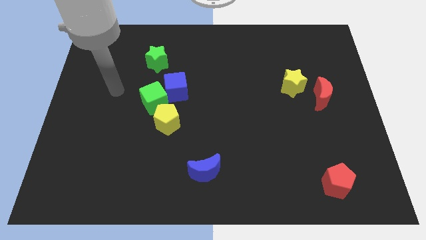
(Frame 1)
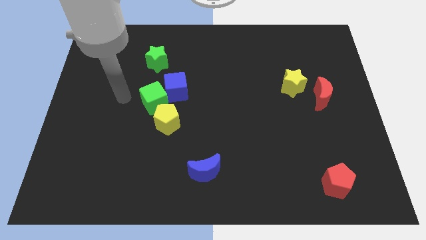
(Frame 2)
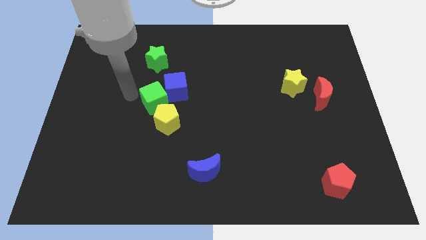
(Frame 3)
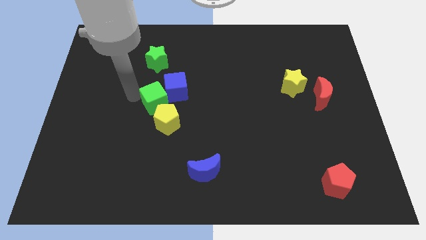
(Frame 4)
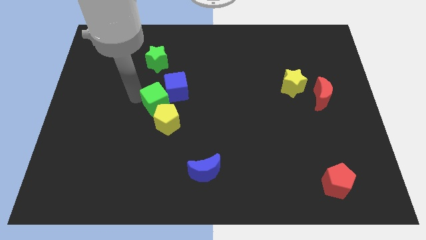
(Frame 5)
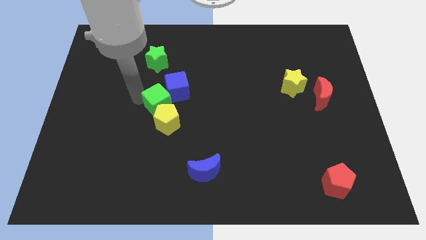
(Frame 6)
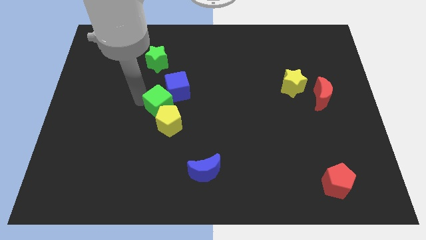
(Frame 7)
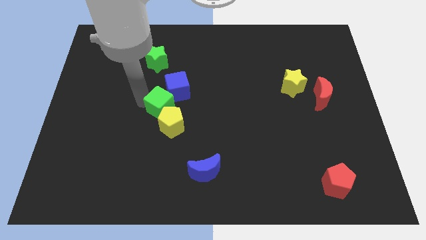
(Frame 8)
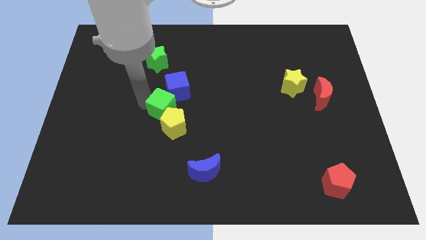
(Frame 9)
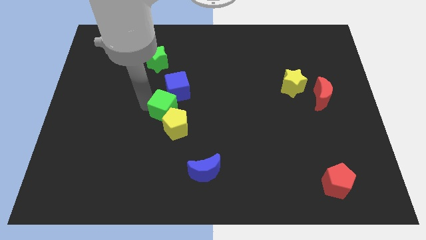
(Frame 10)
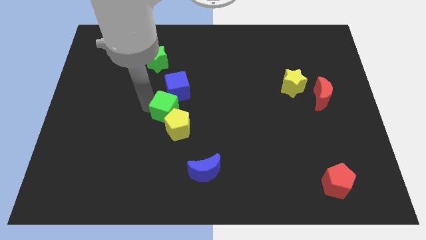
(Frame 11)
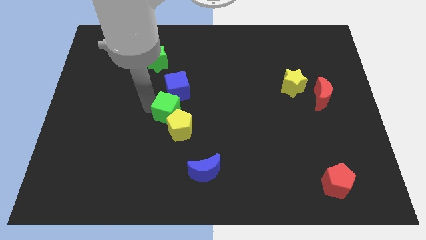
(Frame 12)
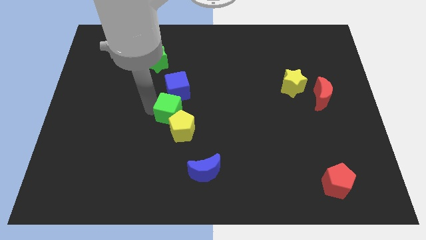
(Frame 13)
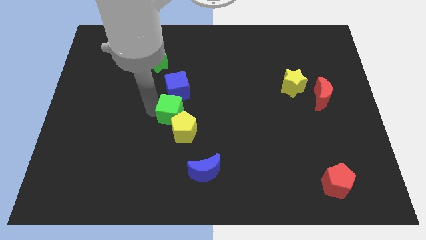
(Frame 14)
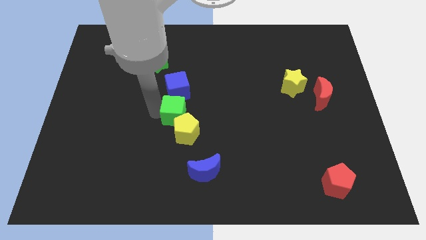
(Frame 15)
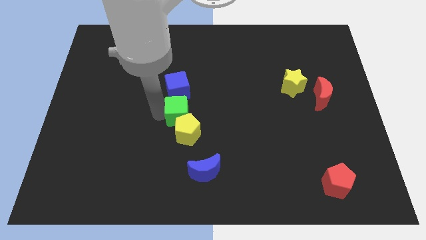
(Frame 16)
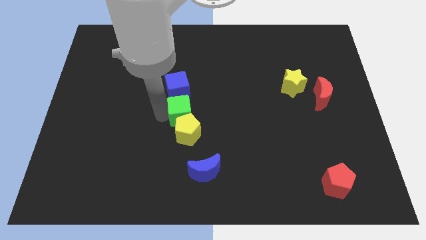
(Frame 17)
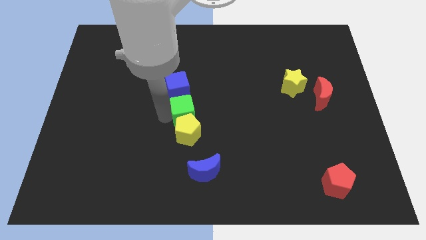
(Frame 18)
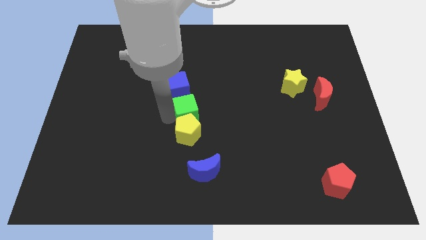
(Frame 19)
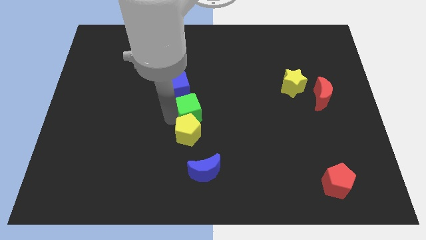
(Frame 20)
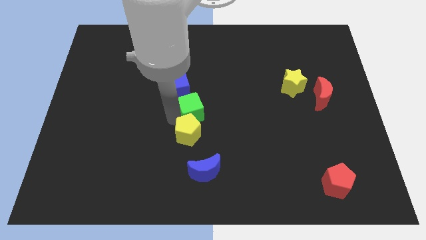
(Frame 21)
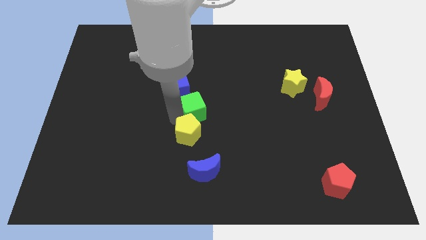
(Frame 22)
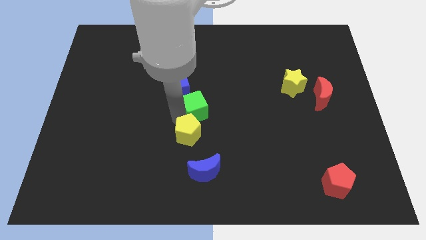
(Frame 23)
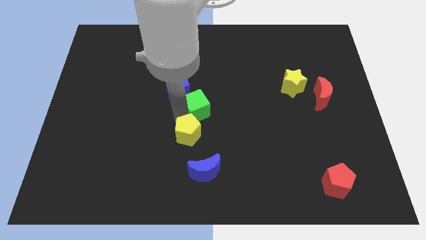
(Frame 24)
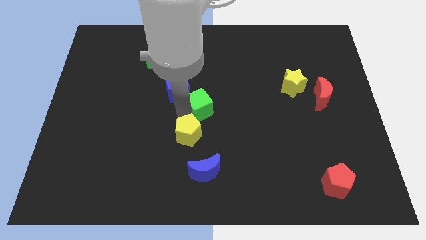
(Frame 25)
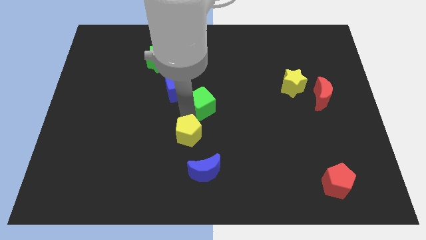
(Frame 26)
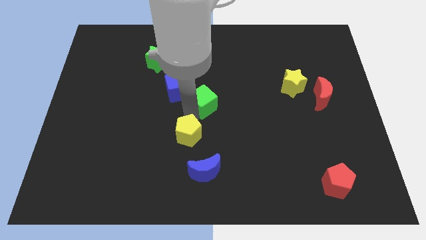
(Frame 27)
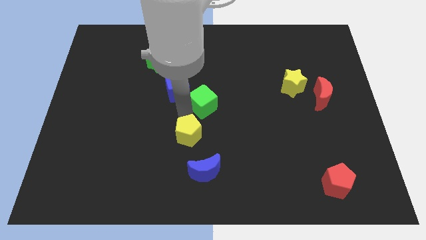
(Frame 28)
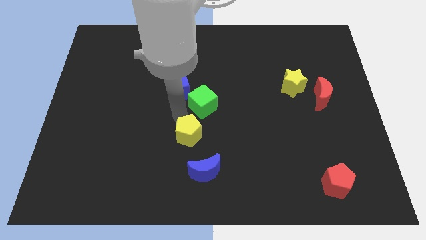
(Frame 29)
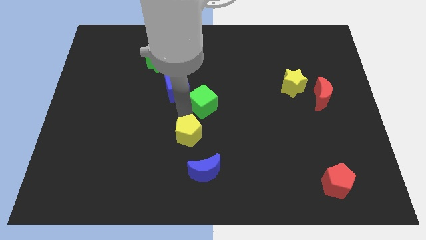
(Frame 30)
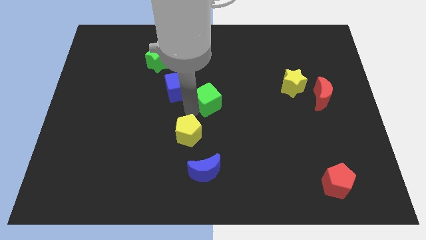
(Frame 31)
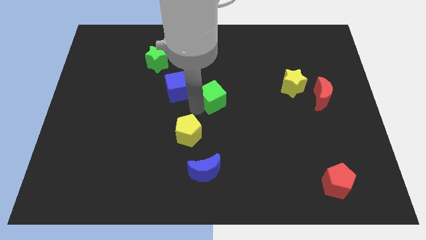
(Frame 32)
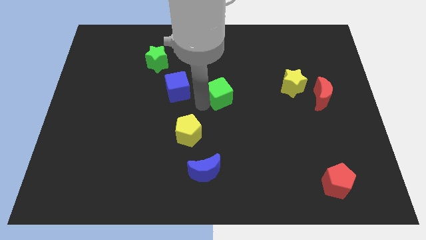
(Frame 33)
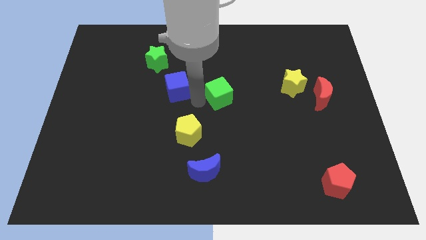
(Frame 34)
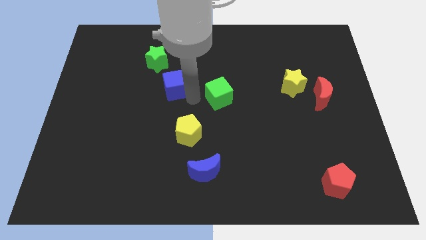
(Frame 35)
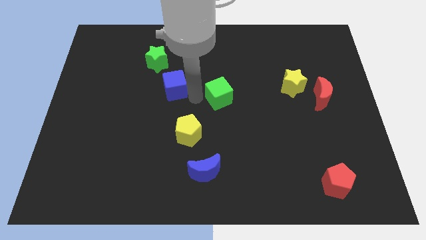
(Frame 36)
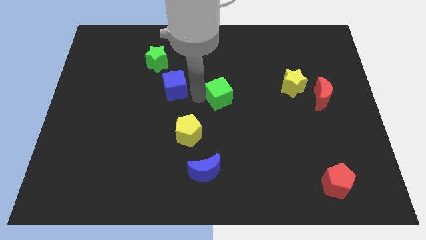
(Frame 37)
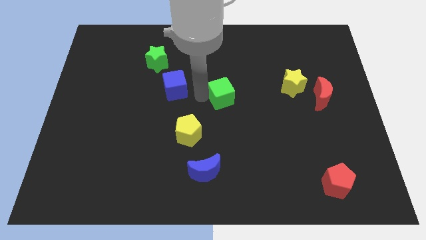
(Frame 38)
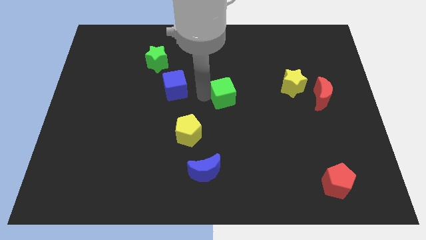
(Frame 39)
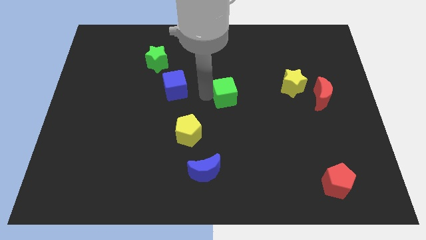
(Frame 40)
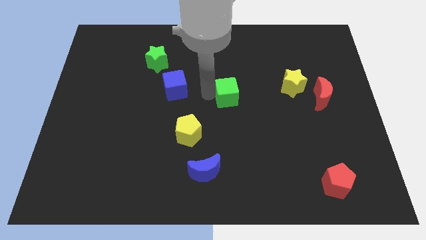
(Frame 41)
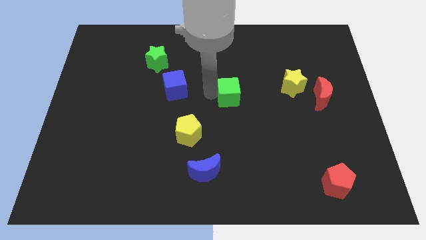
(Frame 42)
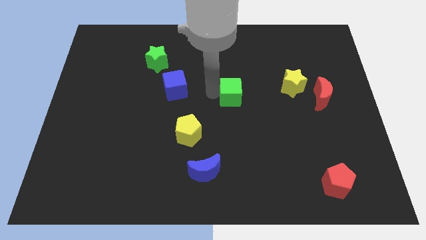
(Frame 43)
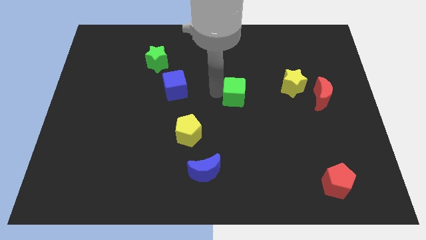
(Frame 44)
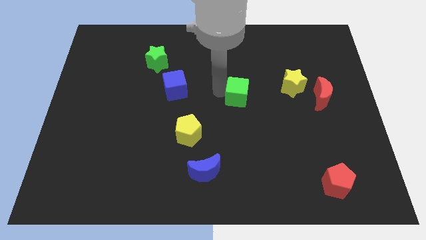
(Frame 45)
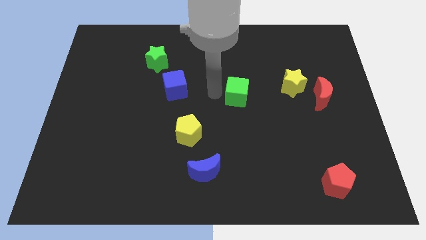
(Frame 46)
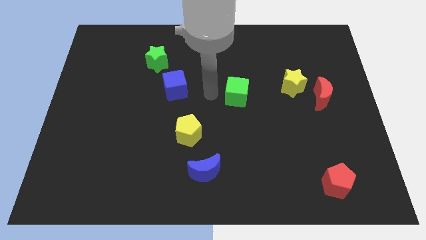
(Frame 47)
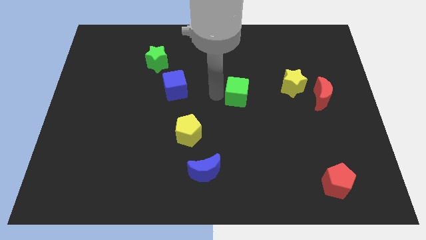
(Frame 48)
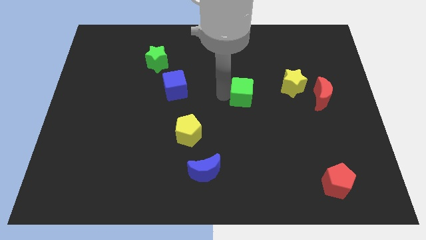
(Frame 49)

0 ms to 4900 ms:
slide the green cube right

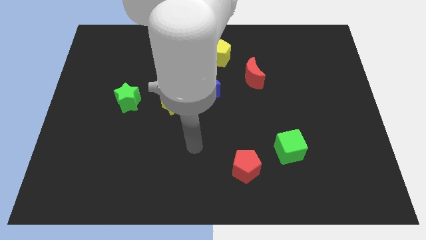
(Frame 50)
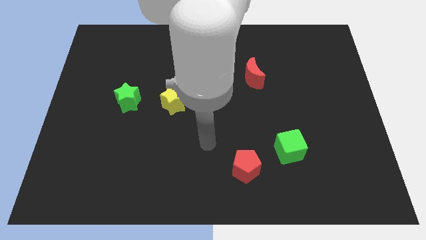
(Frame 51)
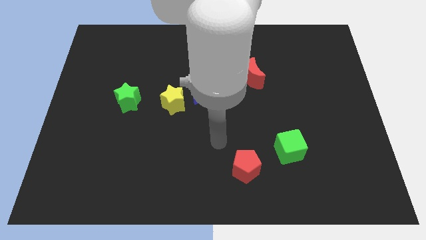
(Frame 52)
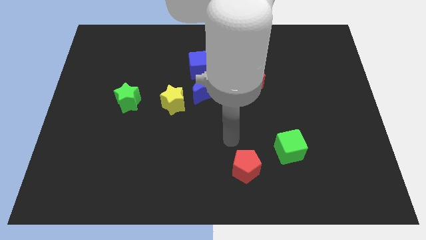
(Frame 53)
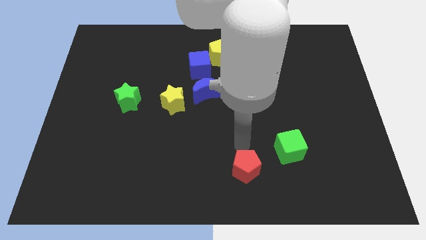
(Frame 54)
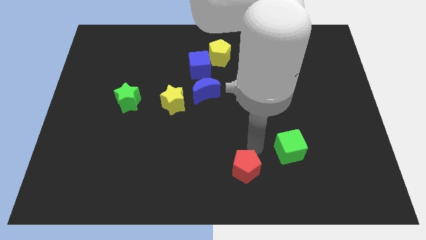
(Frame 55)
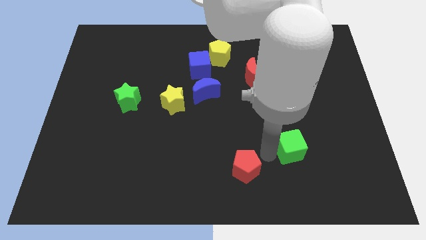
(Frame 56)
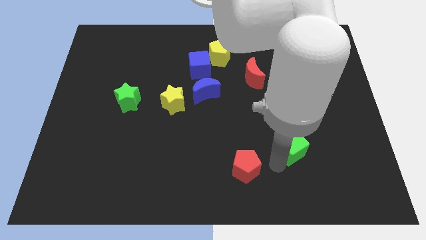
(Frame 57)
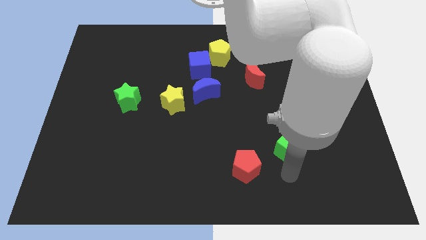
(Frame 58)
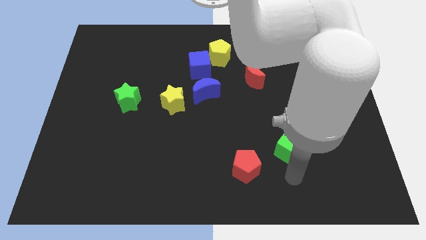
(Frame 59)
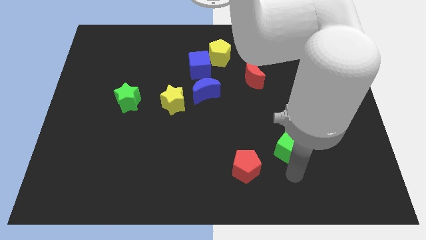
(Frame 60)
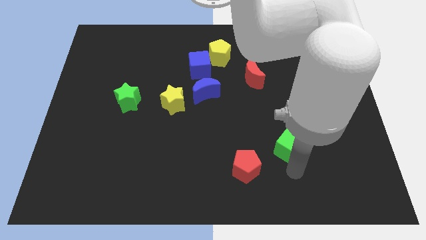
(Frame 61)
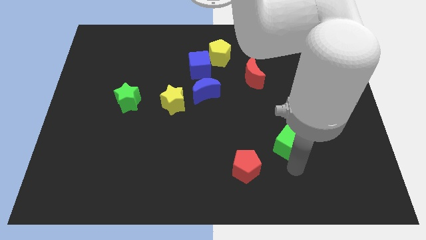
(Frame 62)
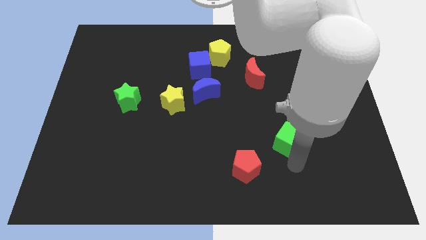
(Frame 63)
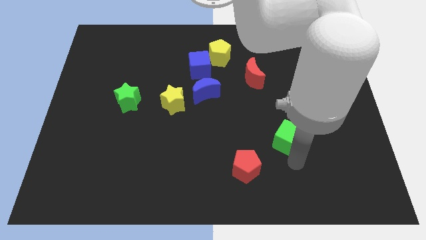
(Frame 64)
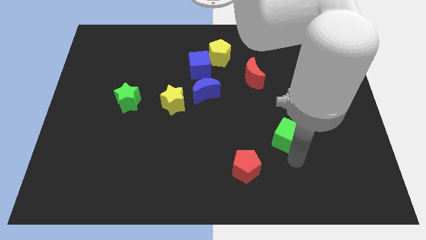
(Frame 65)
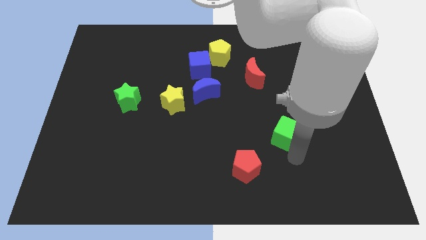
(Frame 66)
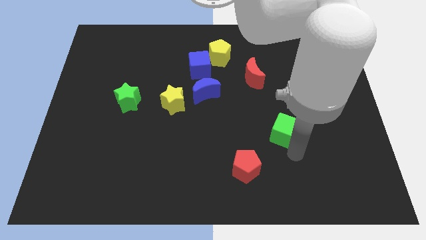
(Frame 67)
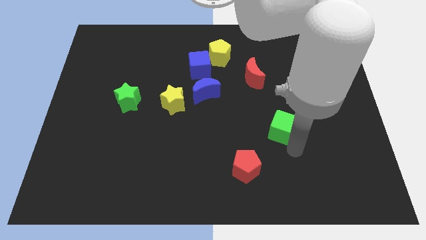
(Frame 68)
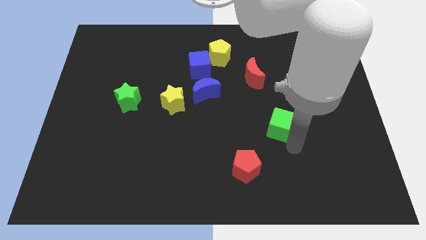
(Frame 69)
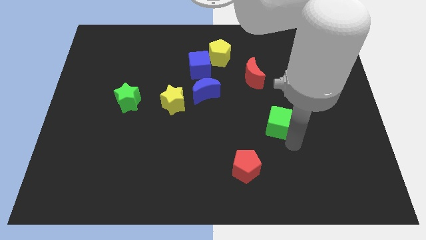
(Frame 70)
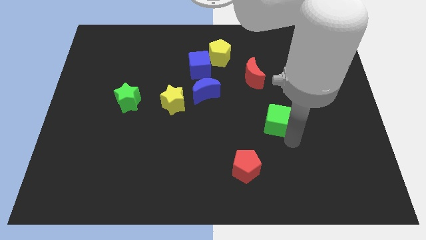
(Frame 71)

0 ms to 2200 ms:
push the green cube a bit up

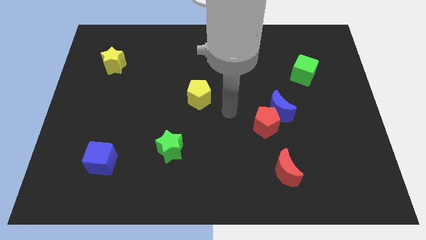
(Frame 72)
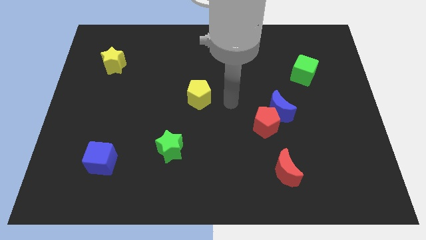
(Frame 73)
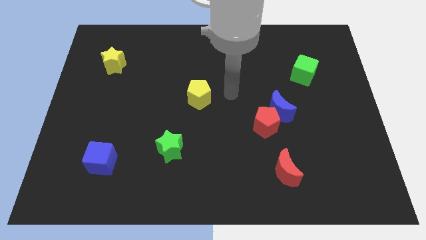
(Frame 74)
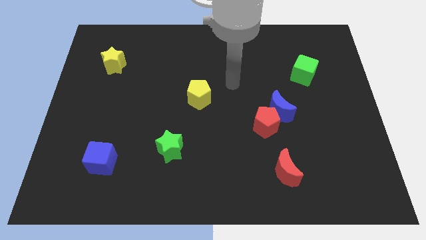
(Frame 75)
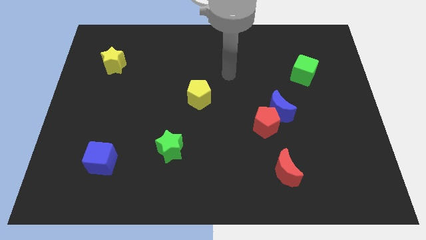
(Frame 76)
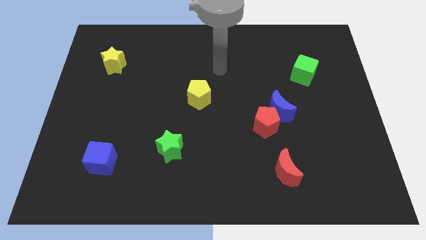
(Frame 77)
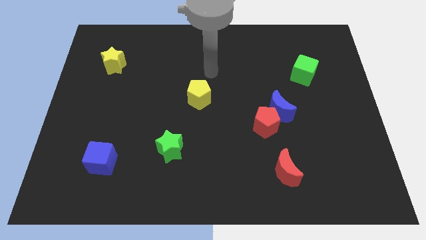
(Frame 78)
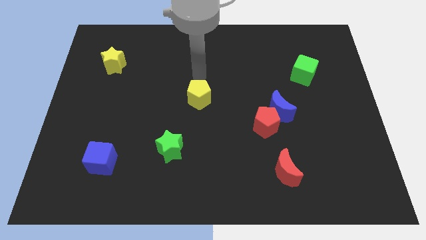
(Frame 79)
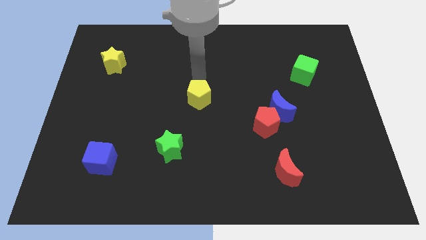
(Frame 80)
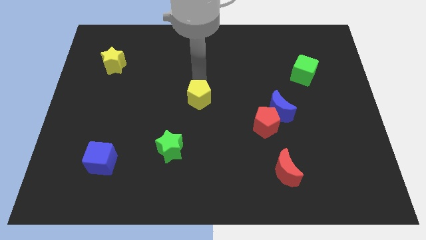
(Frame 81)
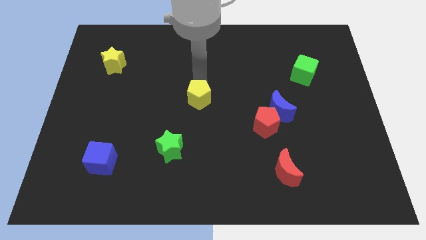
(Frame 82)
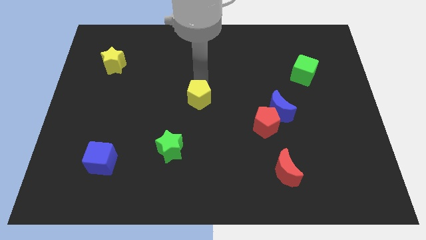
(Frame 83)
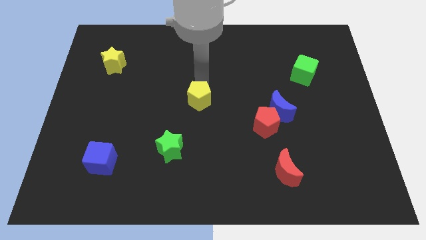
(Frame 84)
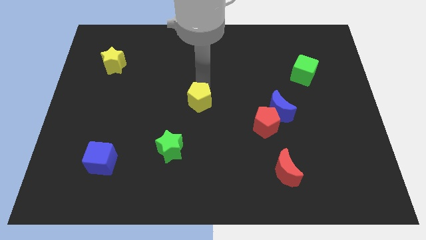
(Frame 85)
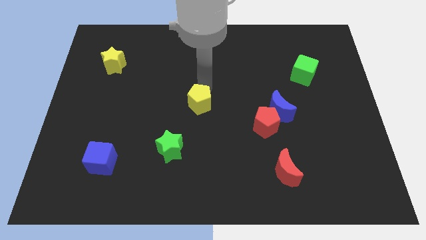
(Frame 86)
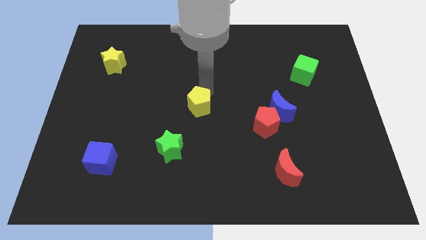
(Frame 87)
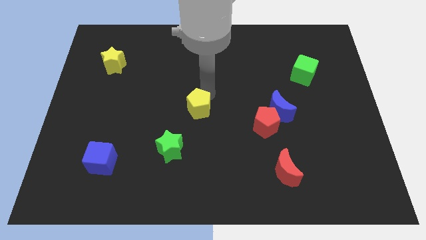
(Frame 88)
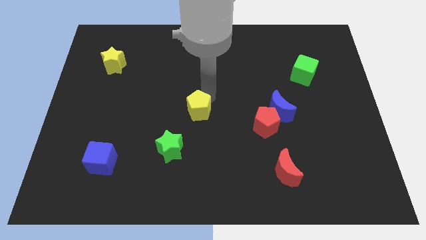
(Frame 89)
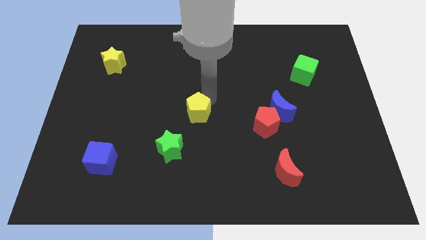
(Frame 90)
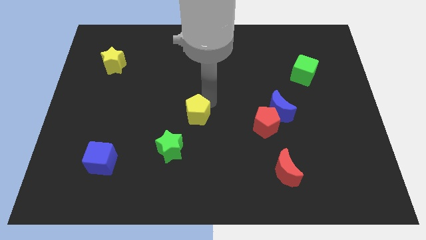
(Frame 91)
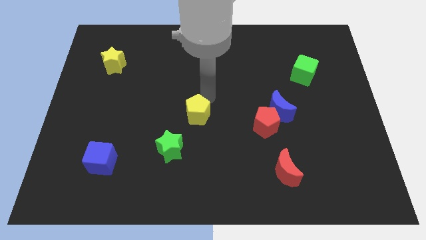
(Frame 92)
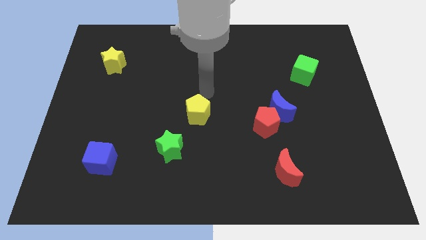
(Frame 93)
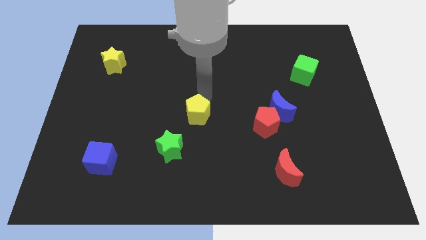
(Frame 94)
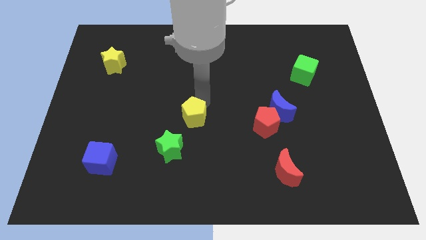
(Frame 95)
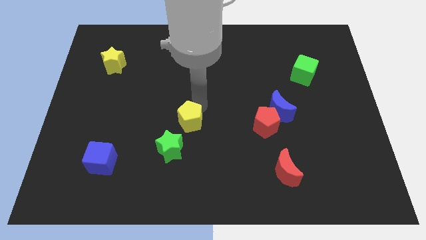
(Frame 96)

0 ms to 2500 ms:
slightly push the yellow pentagon down
